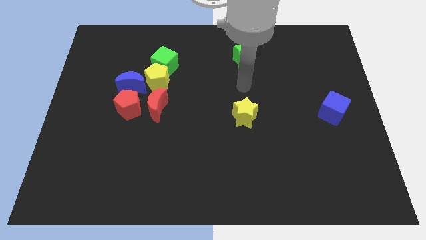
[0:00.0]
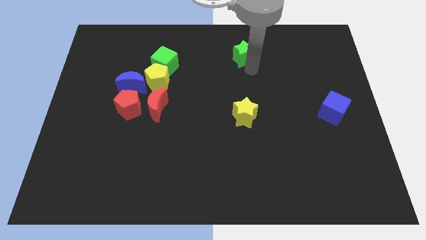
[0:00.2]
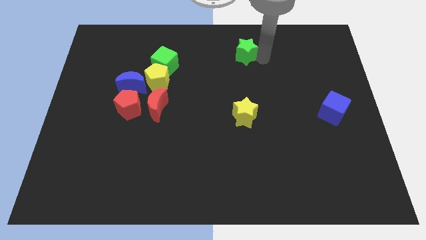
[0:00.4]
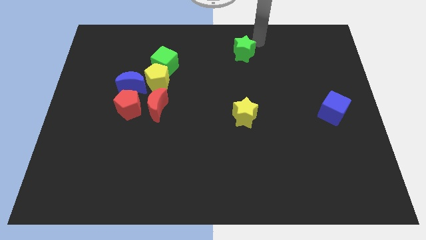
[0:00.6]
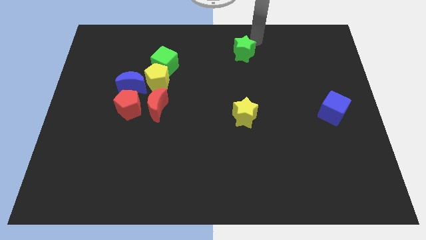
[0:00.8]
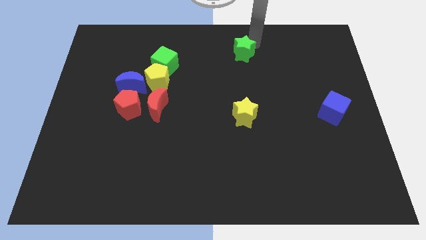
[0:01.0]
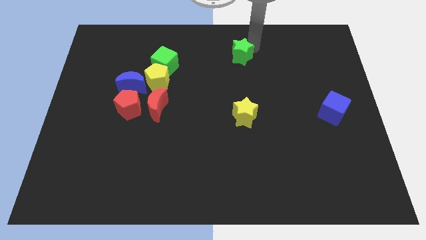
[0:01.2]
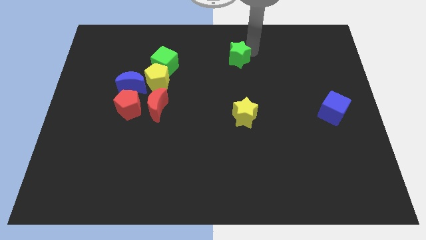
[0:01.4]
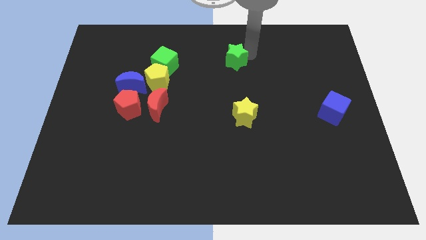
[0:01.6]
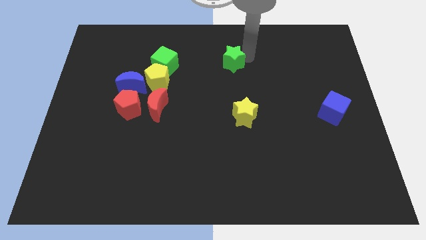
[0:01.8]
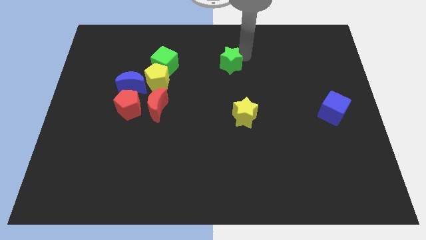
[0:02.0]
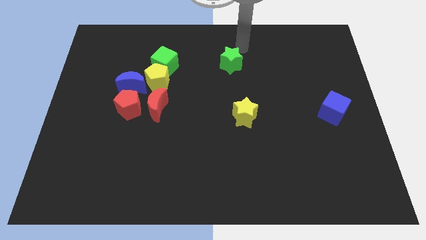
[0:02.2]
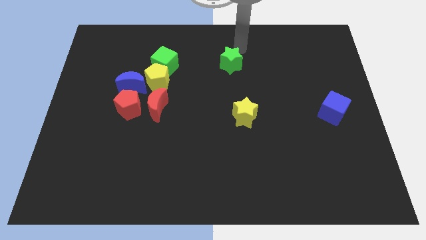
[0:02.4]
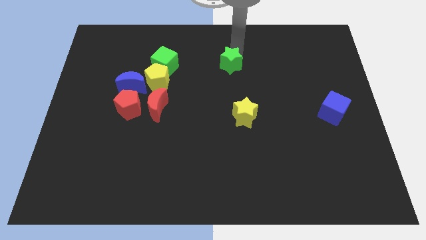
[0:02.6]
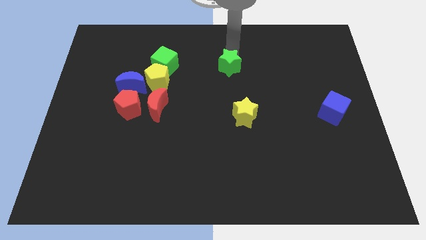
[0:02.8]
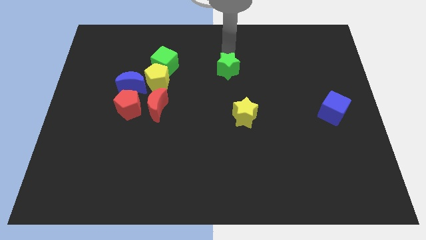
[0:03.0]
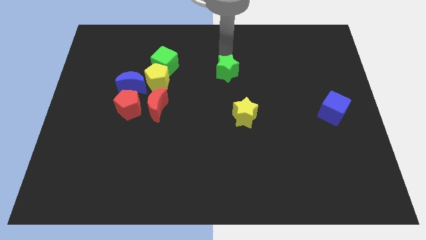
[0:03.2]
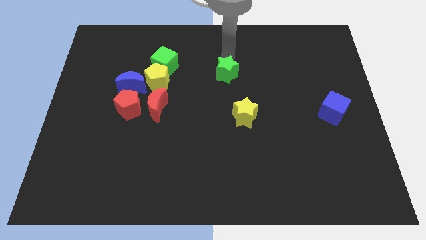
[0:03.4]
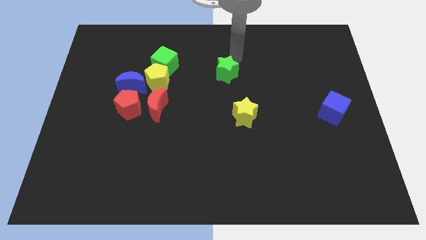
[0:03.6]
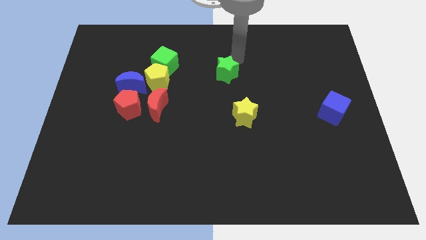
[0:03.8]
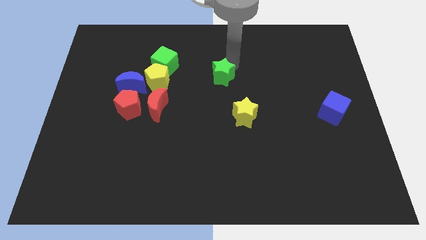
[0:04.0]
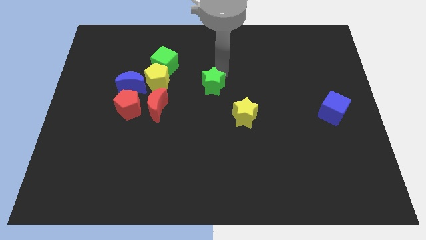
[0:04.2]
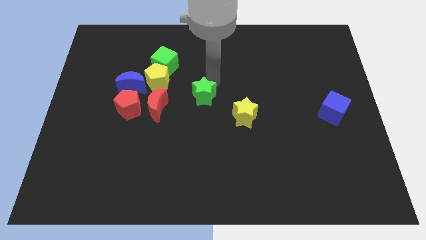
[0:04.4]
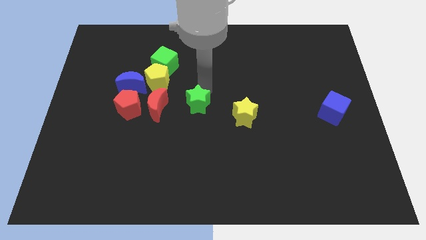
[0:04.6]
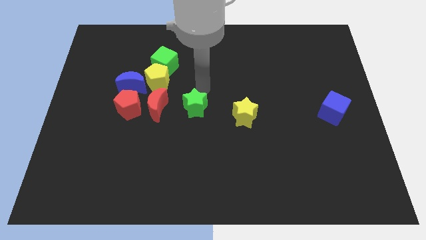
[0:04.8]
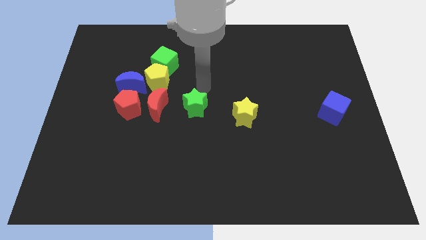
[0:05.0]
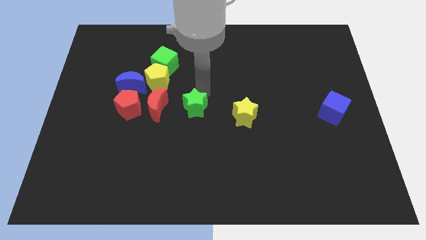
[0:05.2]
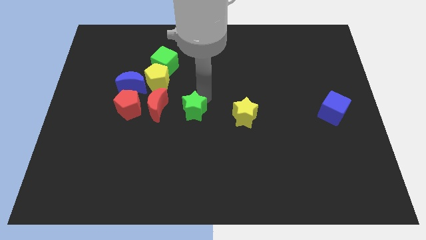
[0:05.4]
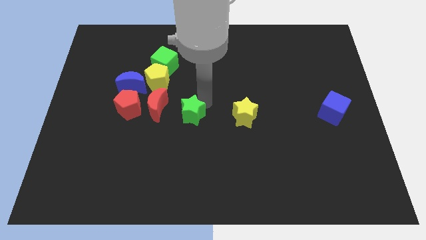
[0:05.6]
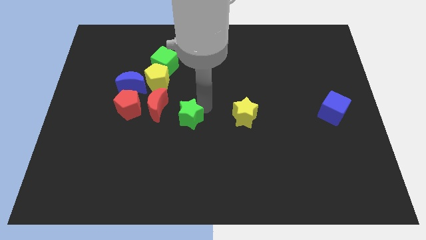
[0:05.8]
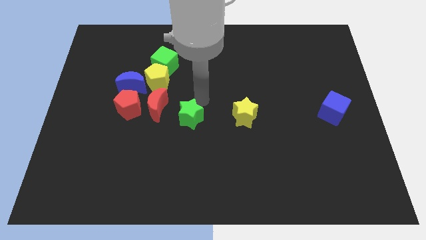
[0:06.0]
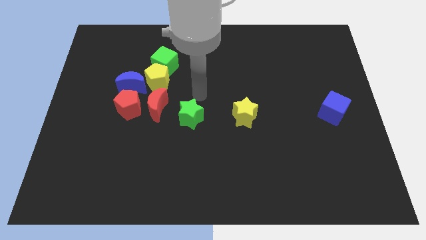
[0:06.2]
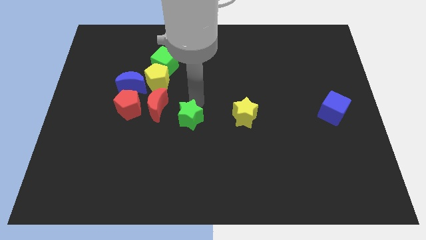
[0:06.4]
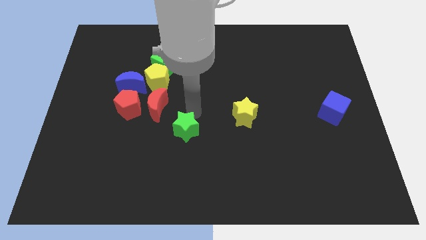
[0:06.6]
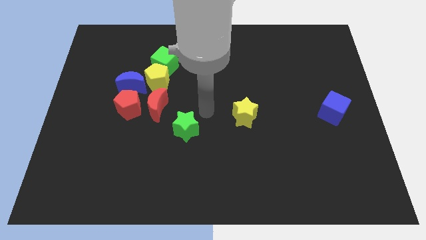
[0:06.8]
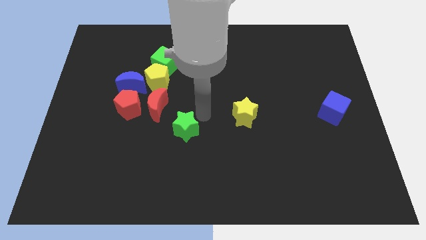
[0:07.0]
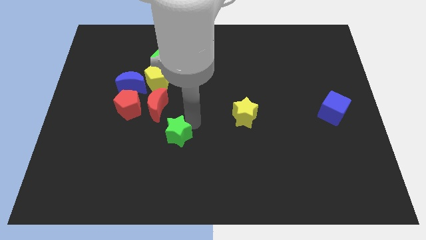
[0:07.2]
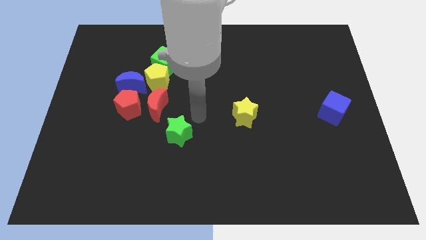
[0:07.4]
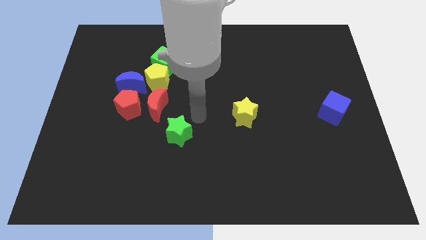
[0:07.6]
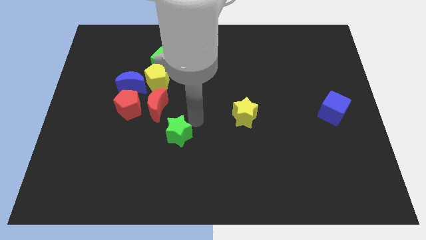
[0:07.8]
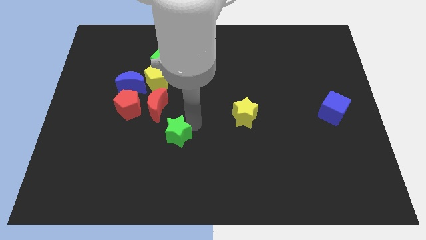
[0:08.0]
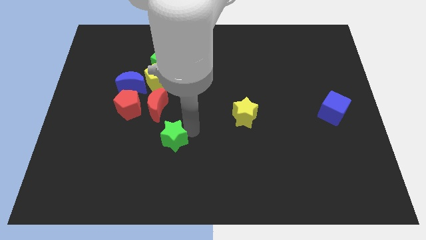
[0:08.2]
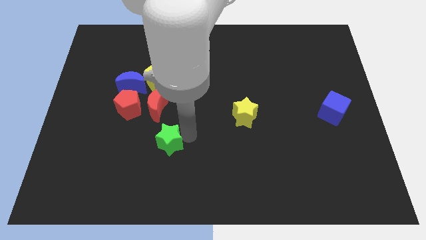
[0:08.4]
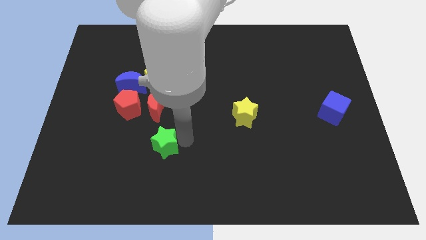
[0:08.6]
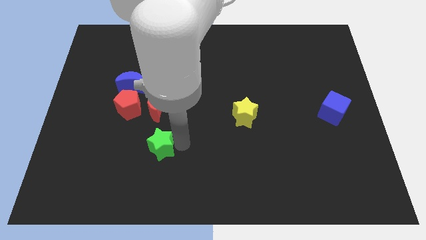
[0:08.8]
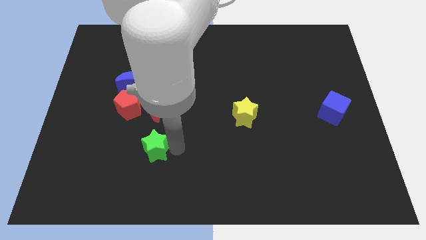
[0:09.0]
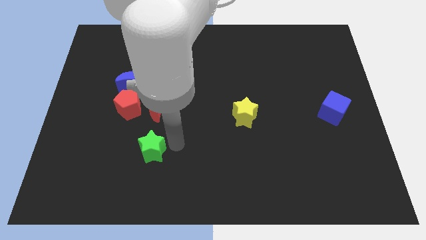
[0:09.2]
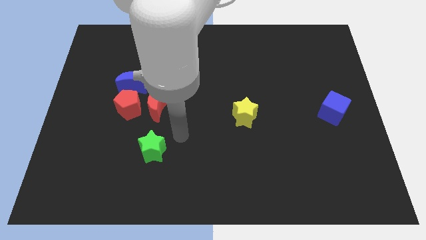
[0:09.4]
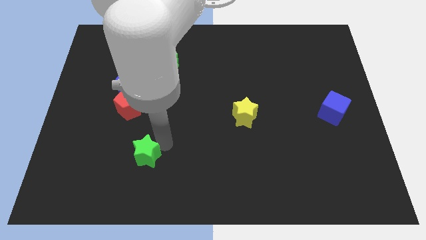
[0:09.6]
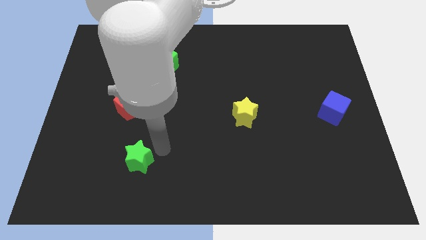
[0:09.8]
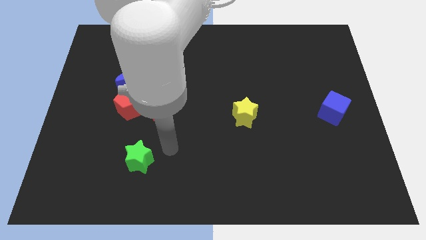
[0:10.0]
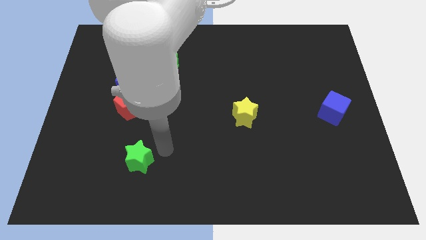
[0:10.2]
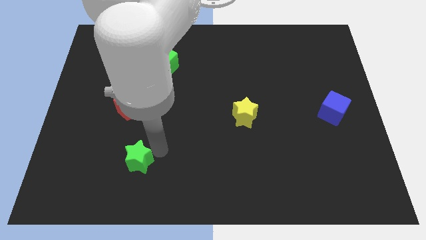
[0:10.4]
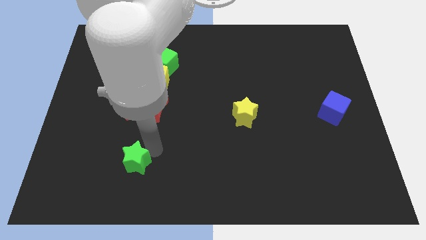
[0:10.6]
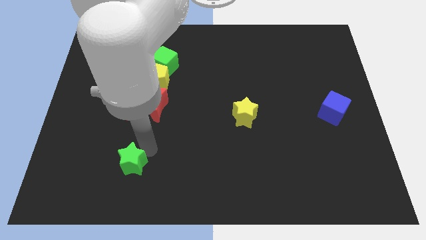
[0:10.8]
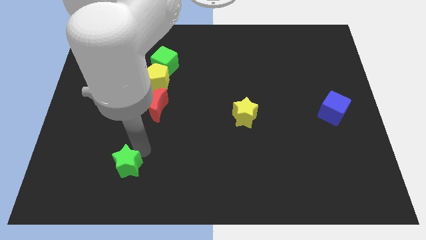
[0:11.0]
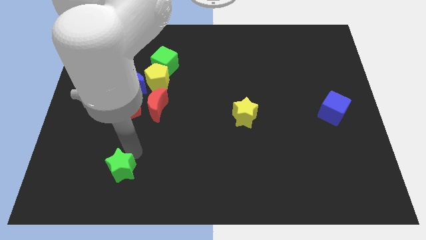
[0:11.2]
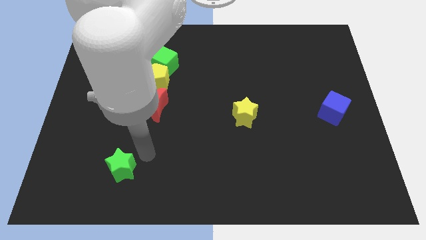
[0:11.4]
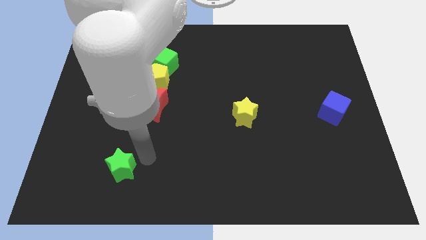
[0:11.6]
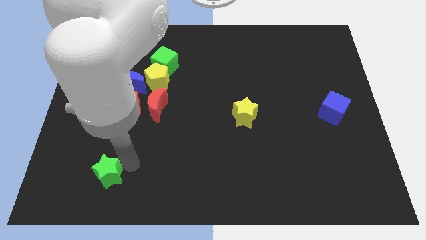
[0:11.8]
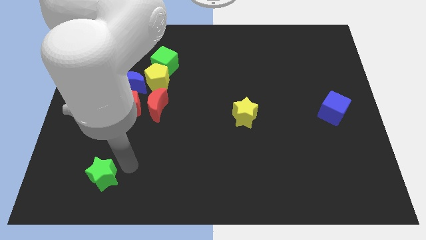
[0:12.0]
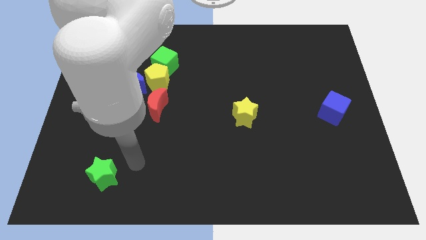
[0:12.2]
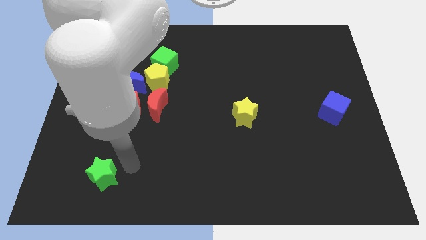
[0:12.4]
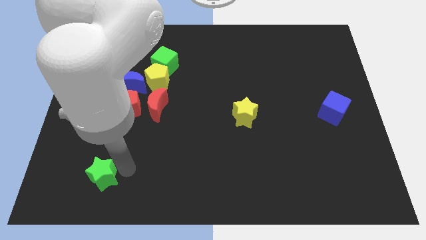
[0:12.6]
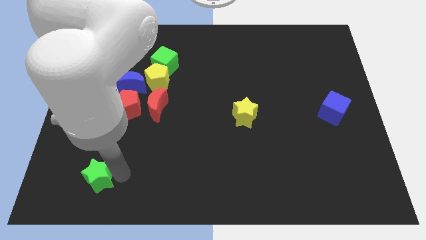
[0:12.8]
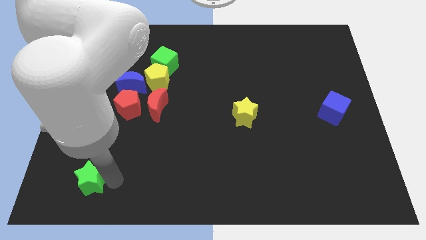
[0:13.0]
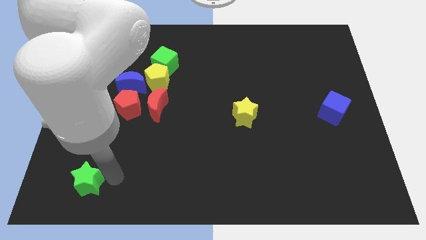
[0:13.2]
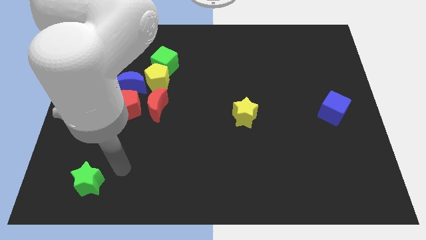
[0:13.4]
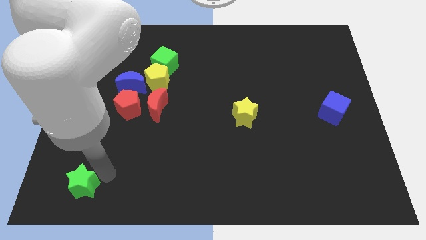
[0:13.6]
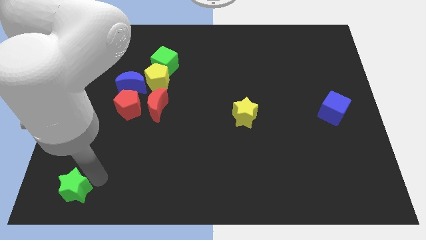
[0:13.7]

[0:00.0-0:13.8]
move the green star to the bottom left corner
